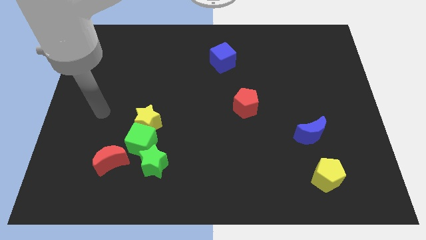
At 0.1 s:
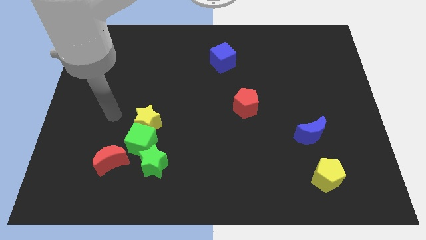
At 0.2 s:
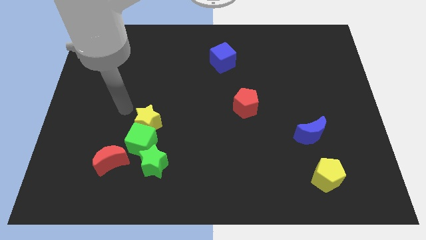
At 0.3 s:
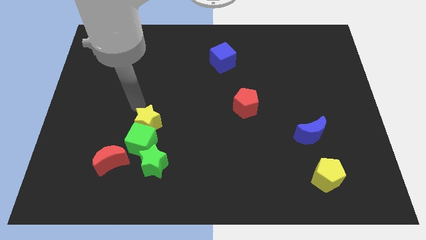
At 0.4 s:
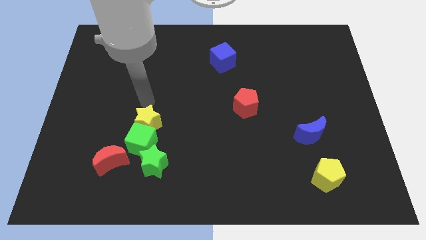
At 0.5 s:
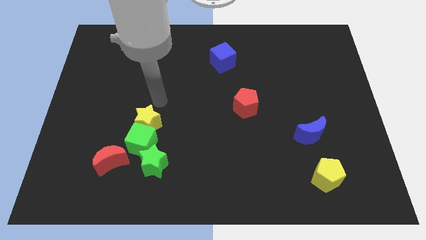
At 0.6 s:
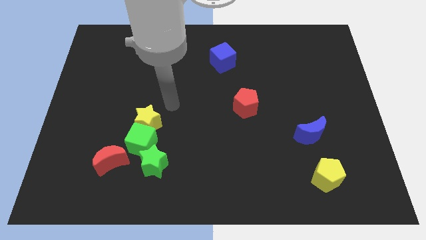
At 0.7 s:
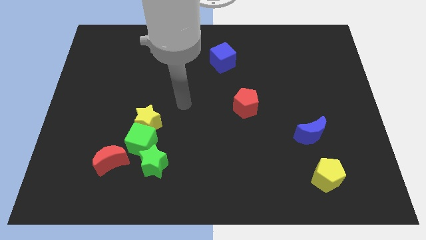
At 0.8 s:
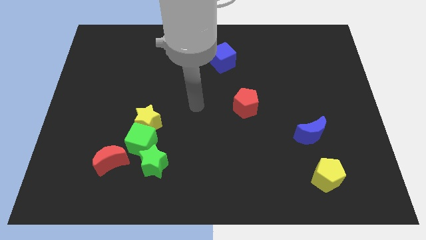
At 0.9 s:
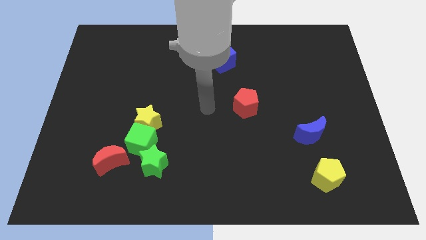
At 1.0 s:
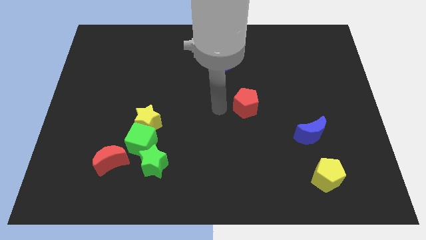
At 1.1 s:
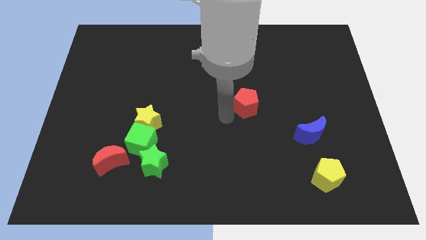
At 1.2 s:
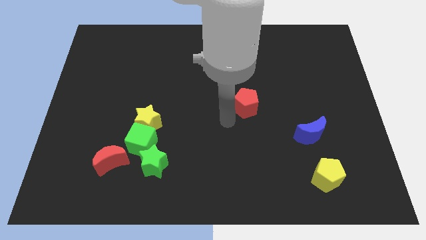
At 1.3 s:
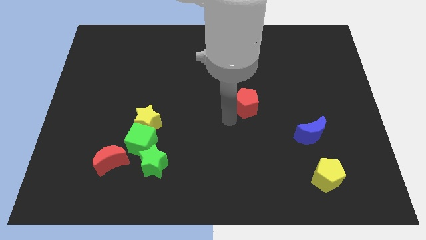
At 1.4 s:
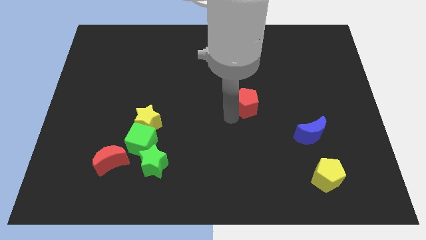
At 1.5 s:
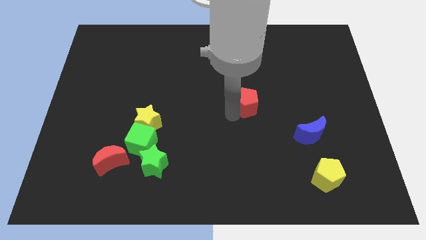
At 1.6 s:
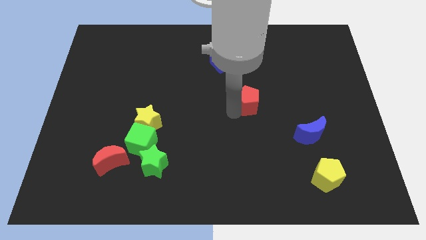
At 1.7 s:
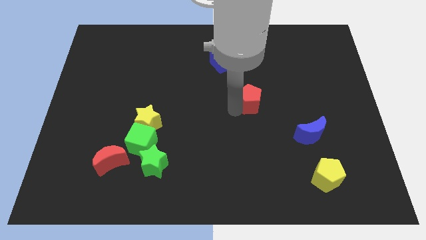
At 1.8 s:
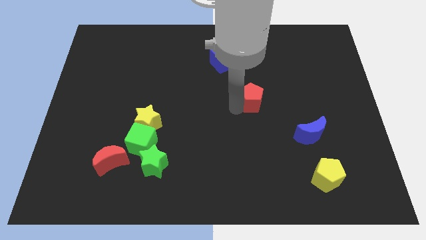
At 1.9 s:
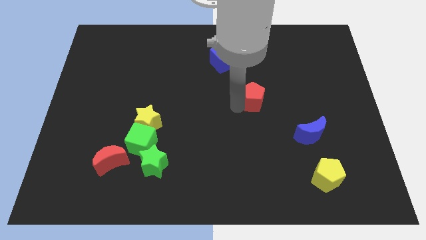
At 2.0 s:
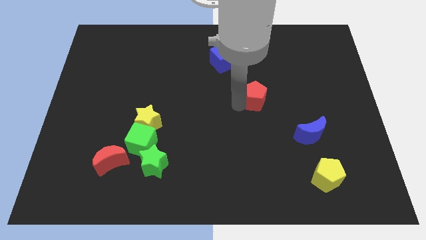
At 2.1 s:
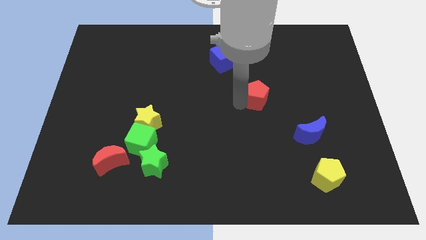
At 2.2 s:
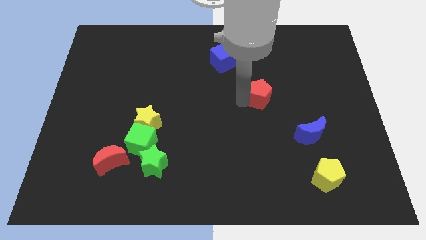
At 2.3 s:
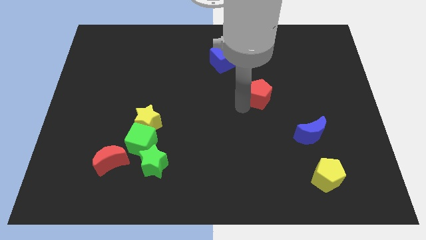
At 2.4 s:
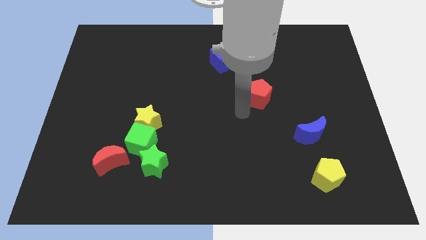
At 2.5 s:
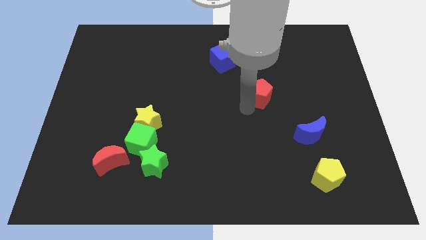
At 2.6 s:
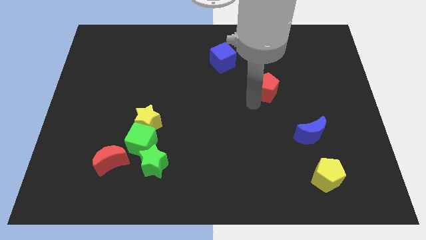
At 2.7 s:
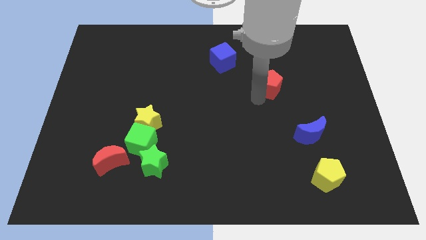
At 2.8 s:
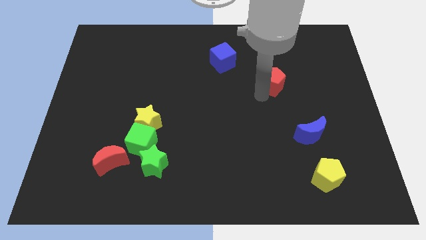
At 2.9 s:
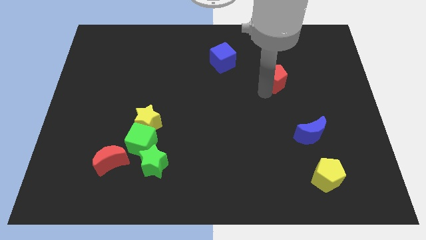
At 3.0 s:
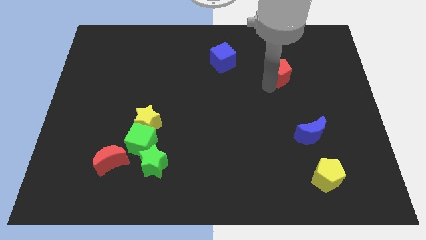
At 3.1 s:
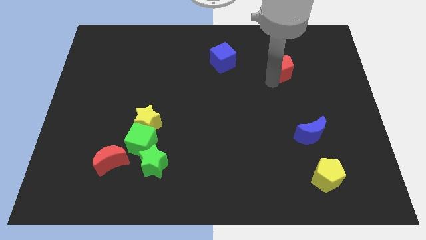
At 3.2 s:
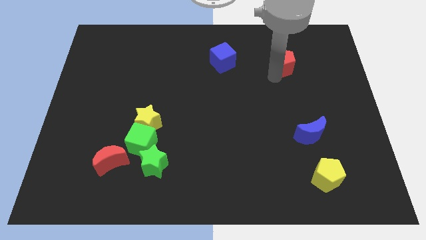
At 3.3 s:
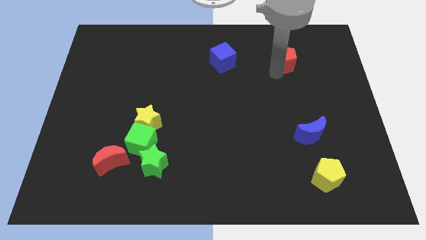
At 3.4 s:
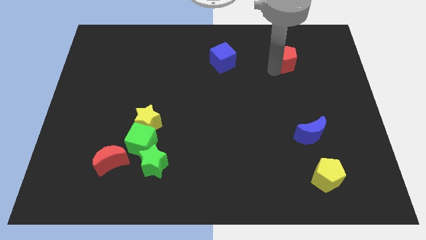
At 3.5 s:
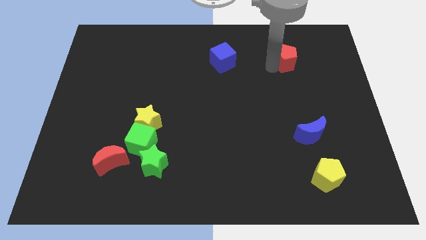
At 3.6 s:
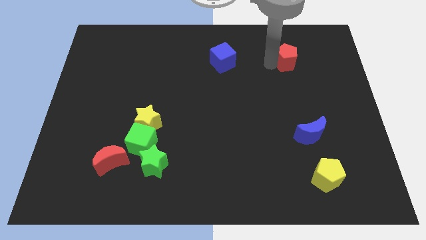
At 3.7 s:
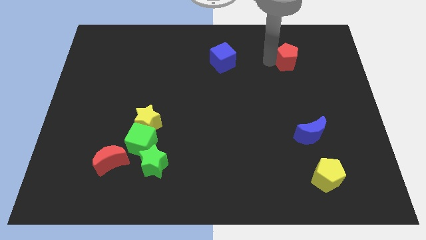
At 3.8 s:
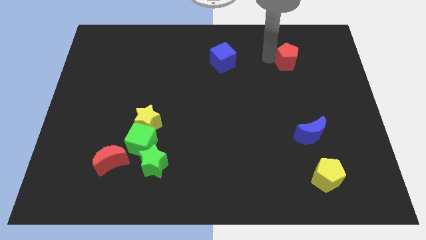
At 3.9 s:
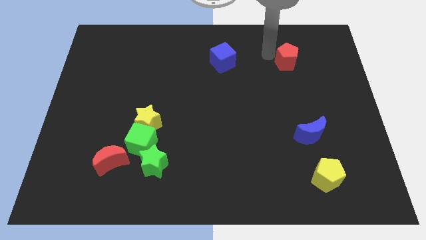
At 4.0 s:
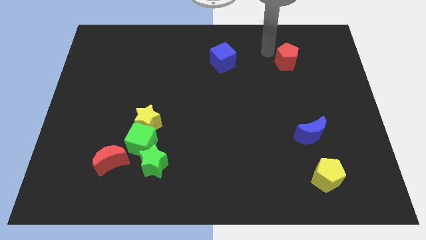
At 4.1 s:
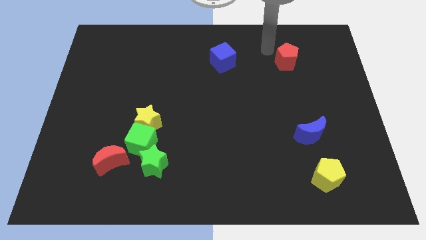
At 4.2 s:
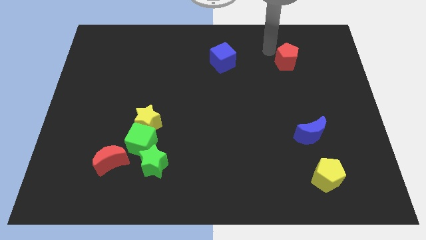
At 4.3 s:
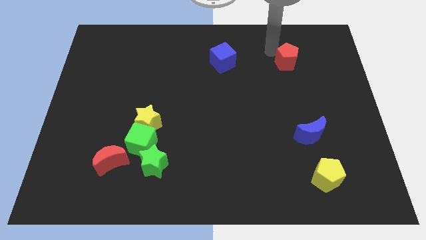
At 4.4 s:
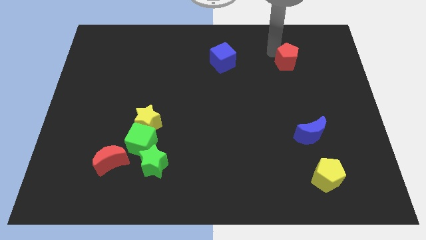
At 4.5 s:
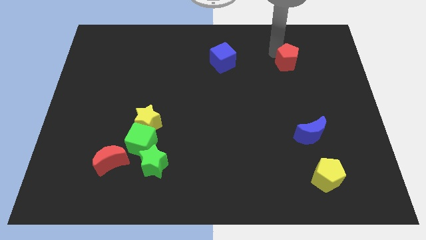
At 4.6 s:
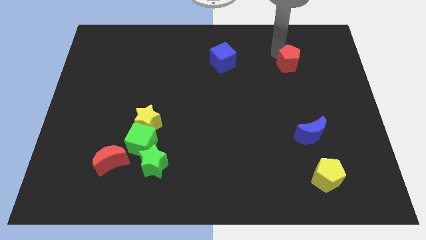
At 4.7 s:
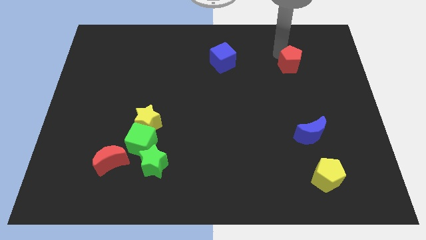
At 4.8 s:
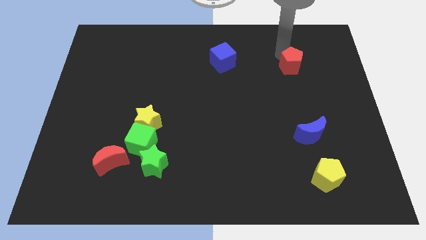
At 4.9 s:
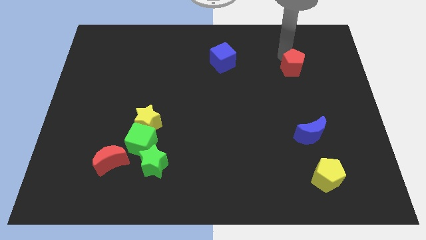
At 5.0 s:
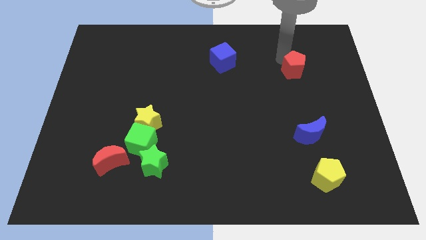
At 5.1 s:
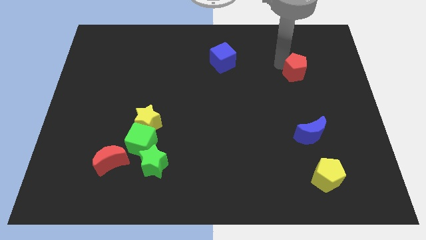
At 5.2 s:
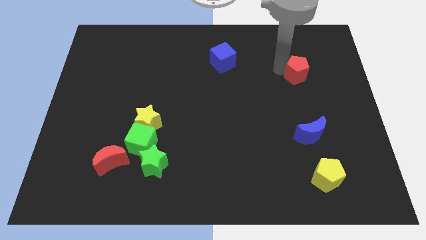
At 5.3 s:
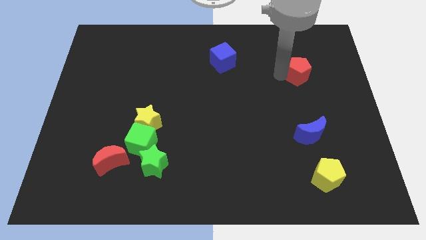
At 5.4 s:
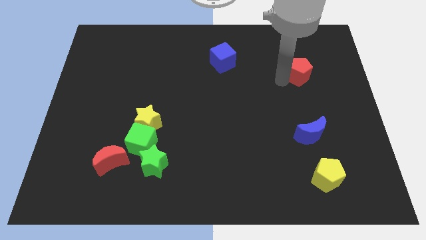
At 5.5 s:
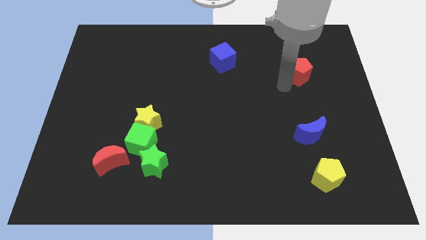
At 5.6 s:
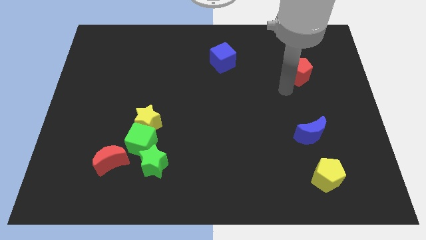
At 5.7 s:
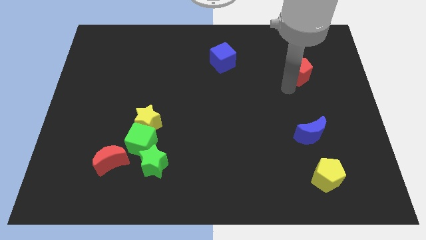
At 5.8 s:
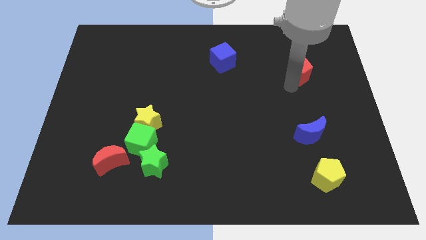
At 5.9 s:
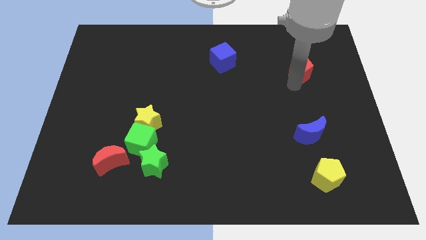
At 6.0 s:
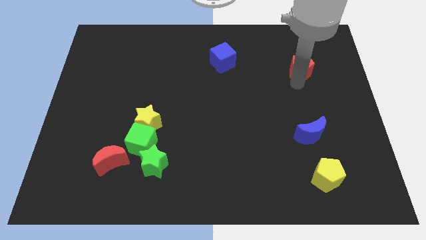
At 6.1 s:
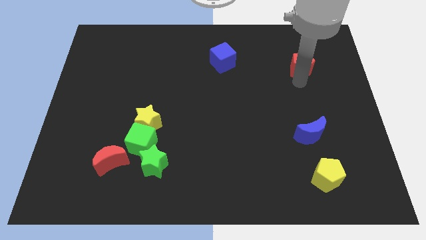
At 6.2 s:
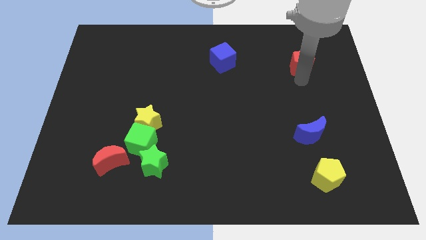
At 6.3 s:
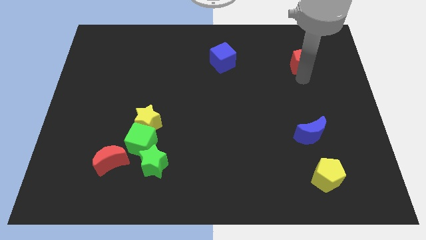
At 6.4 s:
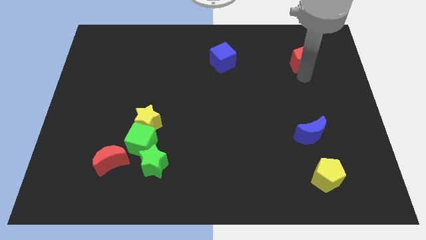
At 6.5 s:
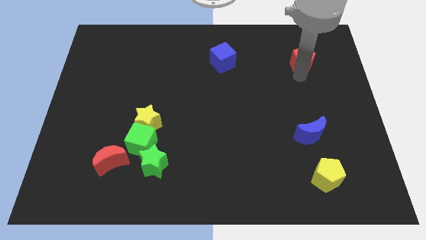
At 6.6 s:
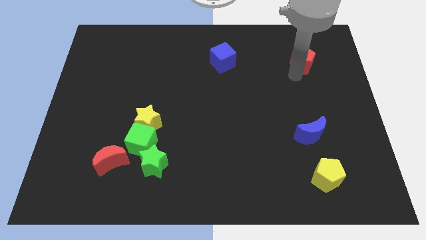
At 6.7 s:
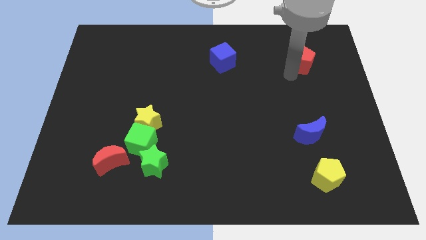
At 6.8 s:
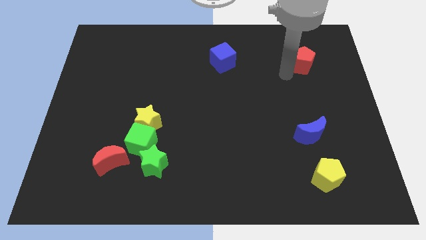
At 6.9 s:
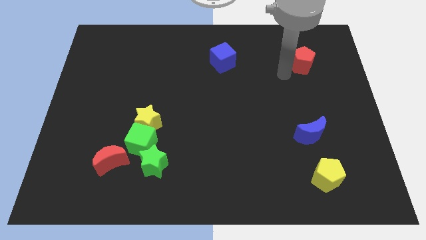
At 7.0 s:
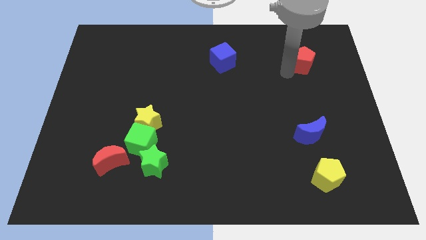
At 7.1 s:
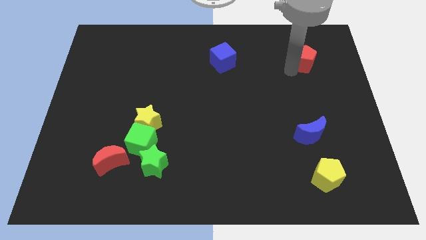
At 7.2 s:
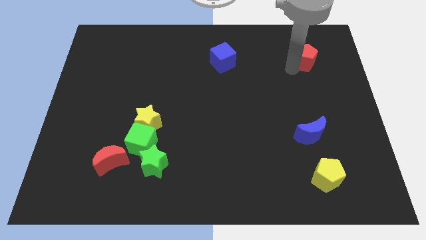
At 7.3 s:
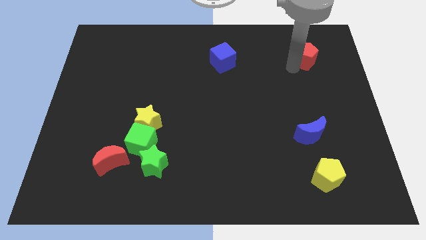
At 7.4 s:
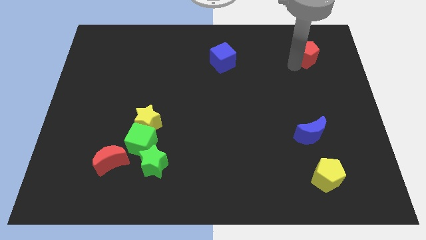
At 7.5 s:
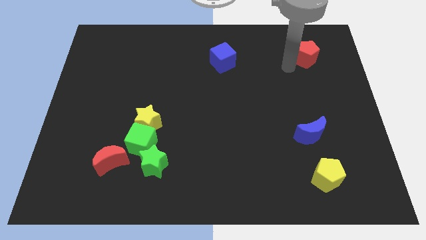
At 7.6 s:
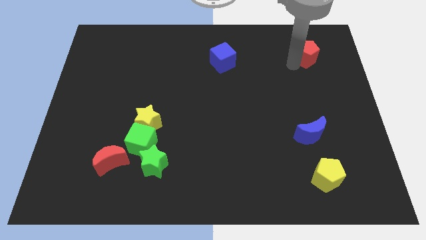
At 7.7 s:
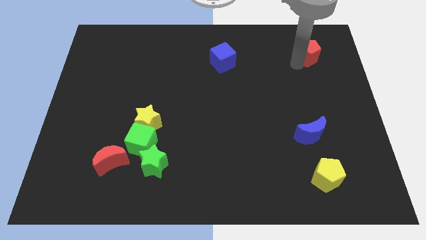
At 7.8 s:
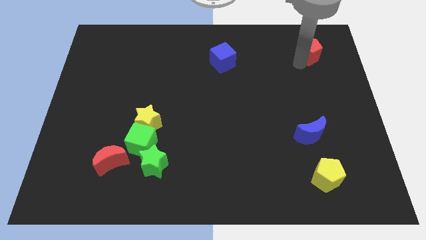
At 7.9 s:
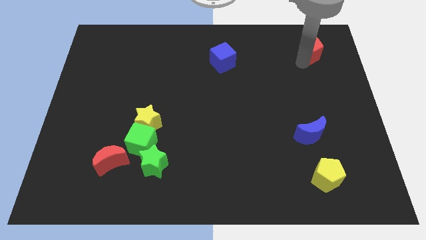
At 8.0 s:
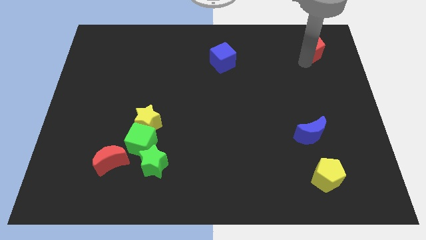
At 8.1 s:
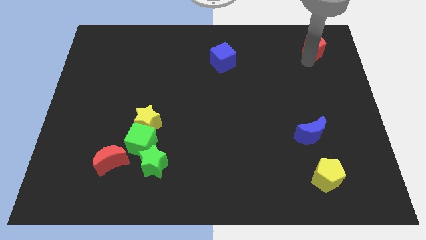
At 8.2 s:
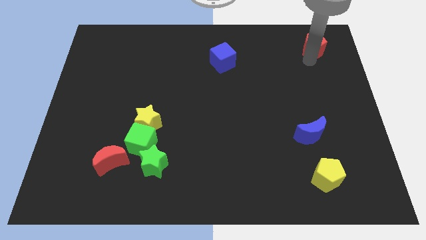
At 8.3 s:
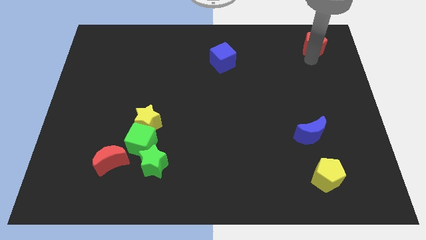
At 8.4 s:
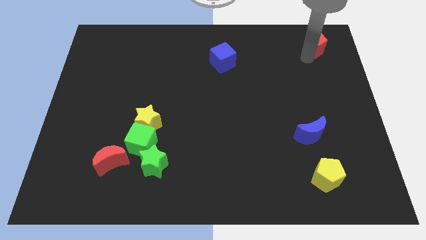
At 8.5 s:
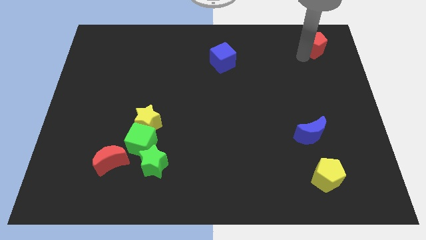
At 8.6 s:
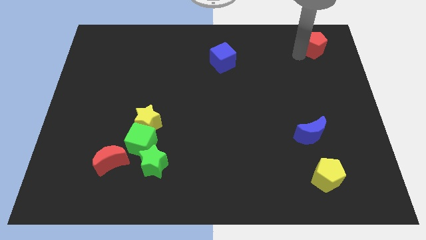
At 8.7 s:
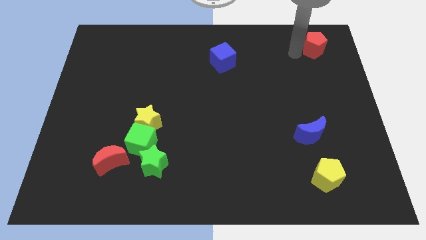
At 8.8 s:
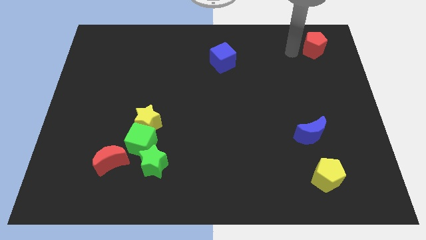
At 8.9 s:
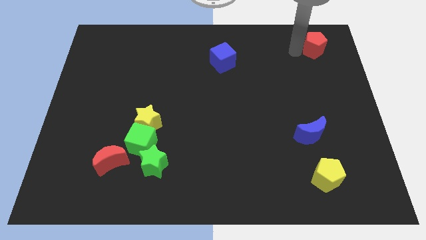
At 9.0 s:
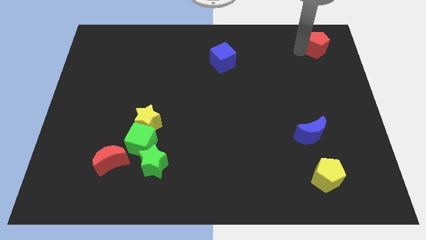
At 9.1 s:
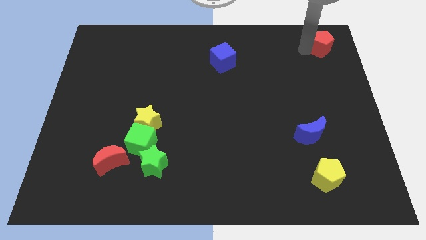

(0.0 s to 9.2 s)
put the red pentagon to the top right of the board
